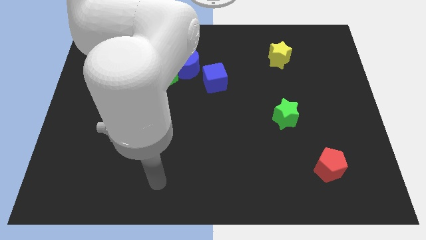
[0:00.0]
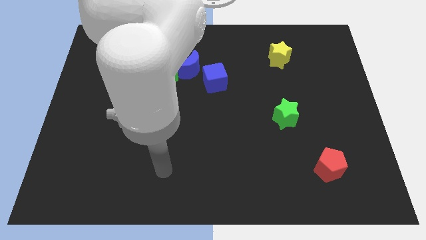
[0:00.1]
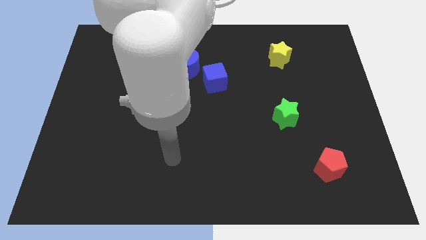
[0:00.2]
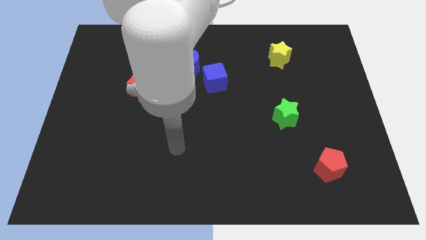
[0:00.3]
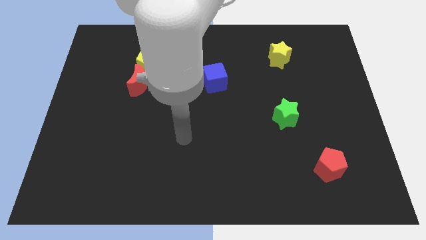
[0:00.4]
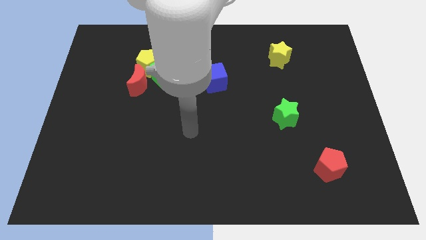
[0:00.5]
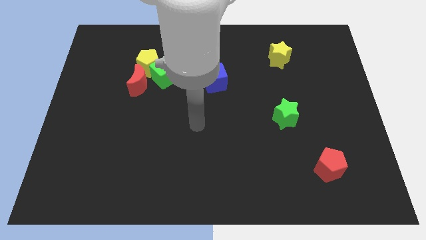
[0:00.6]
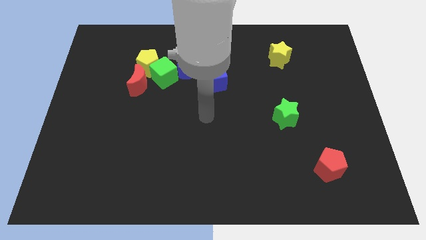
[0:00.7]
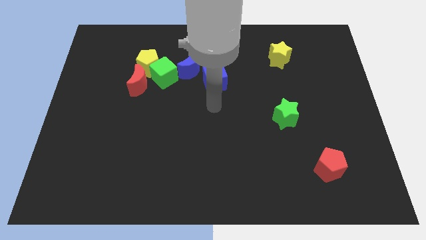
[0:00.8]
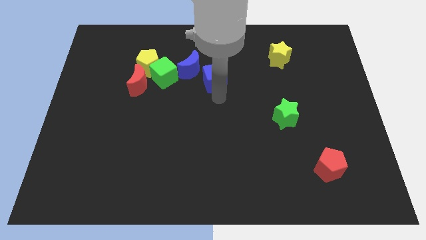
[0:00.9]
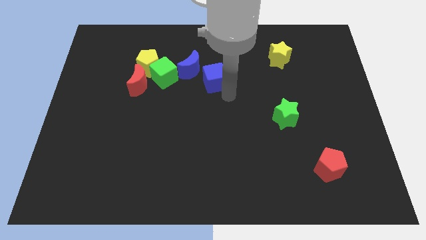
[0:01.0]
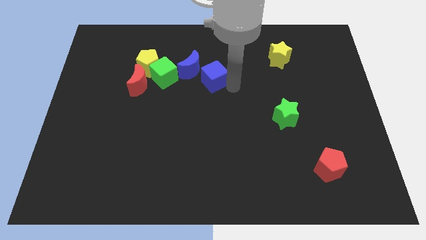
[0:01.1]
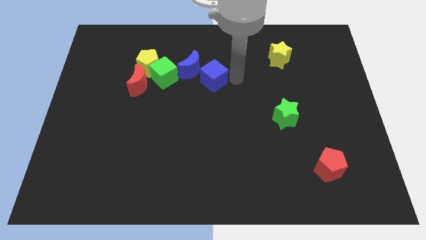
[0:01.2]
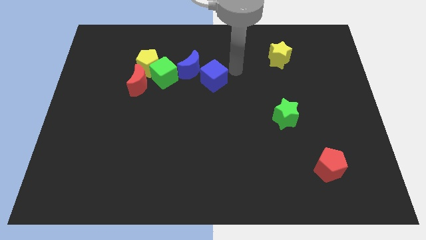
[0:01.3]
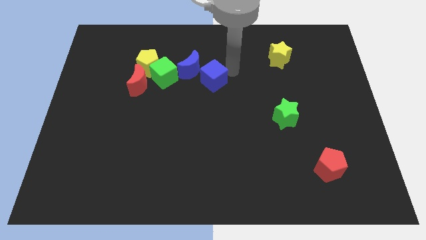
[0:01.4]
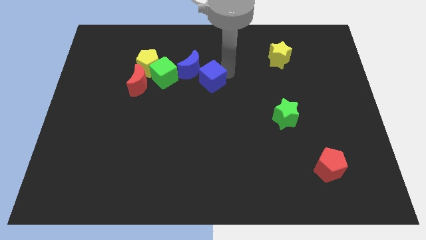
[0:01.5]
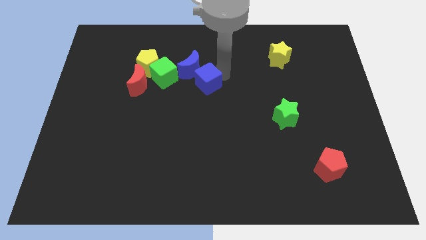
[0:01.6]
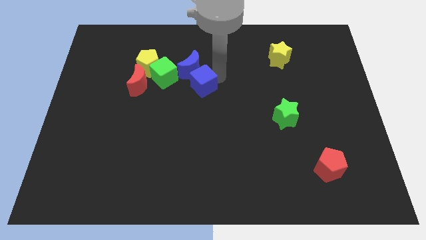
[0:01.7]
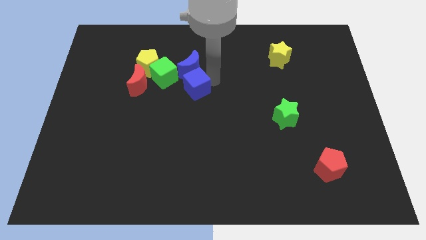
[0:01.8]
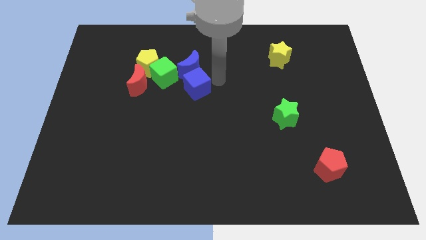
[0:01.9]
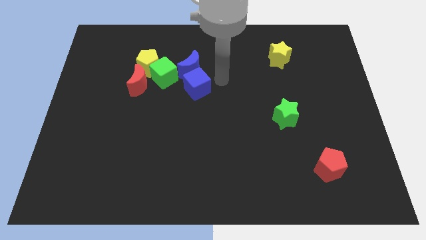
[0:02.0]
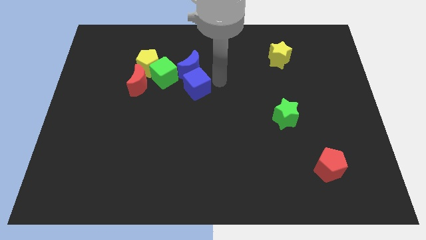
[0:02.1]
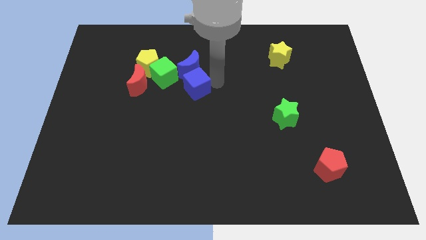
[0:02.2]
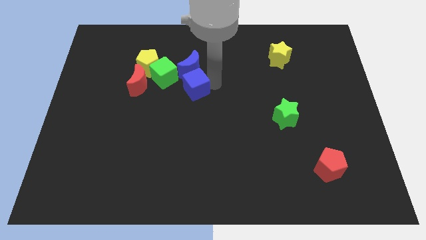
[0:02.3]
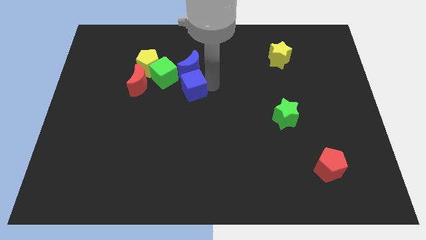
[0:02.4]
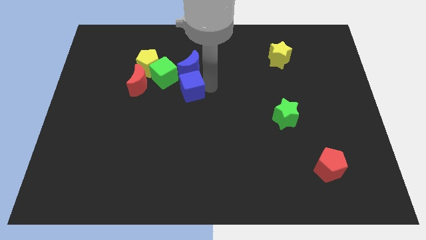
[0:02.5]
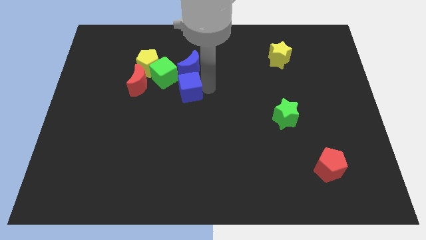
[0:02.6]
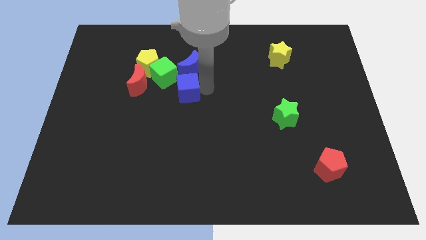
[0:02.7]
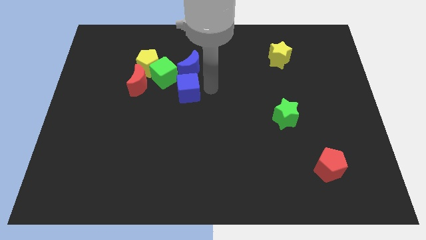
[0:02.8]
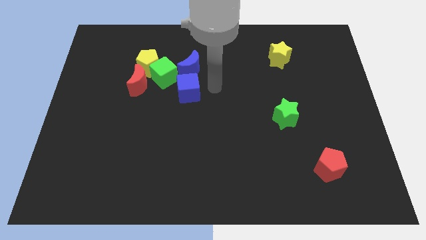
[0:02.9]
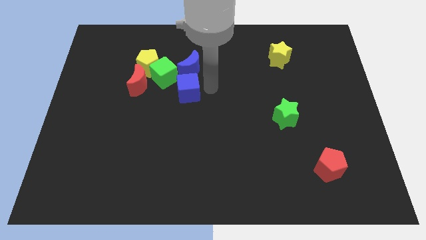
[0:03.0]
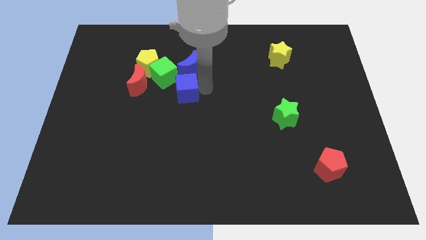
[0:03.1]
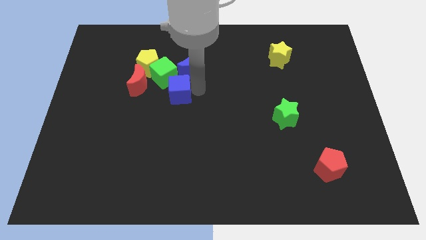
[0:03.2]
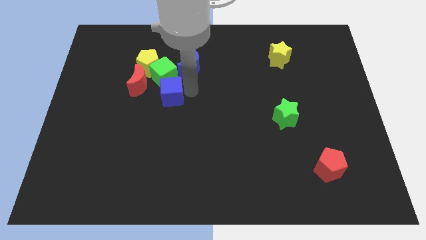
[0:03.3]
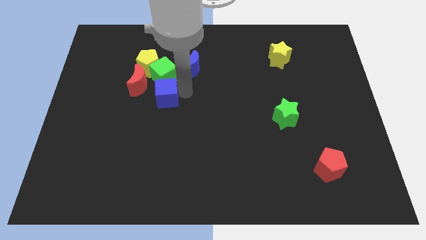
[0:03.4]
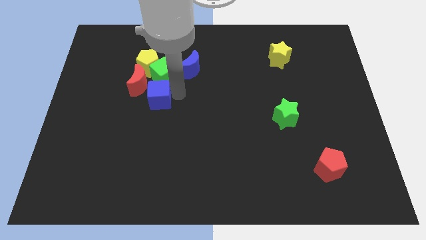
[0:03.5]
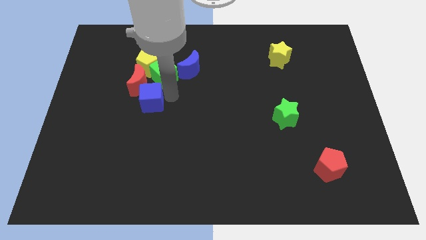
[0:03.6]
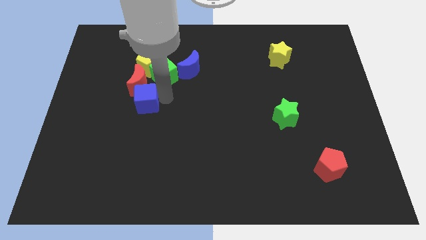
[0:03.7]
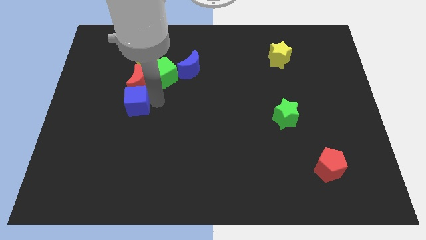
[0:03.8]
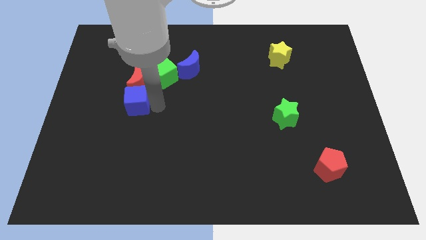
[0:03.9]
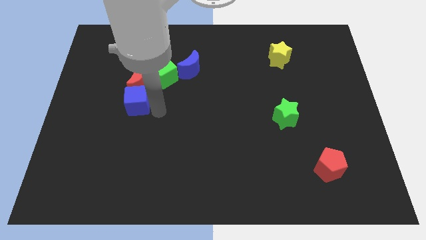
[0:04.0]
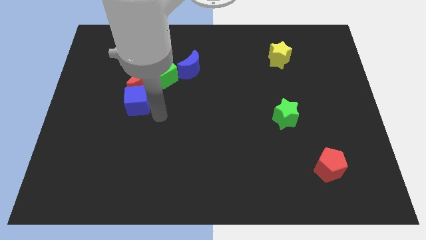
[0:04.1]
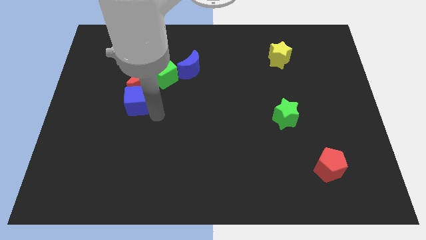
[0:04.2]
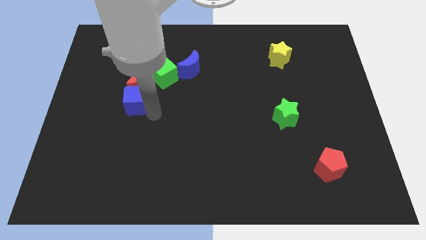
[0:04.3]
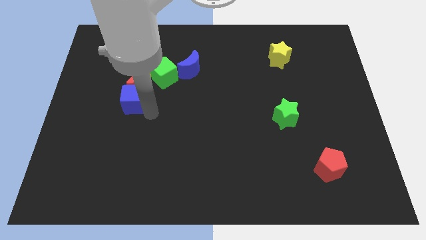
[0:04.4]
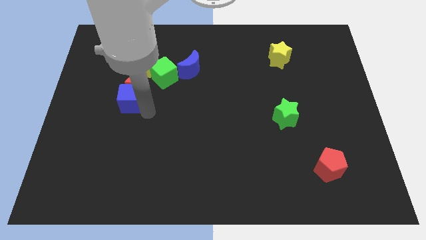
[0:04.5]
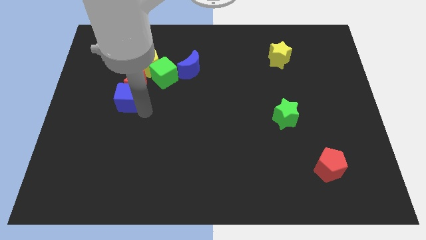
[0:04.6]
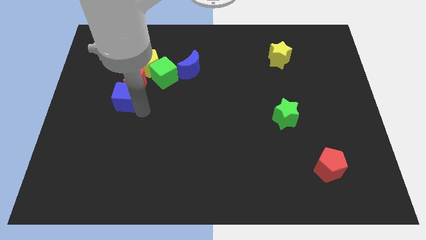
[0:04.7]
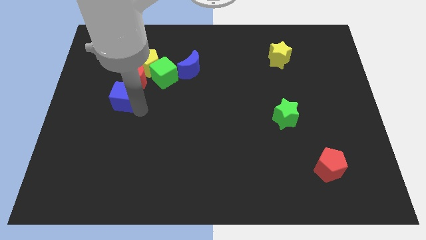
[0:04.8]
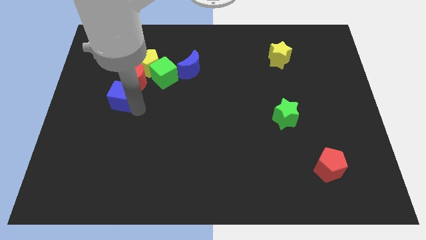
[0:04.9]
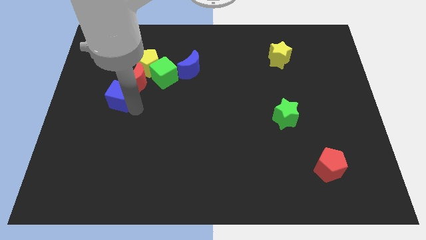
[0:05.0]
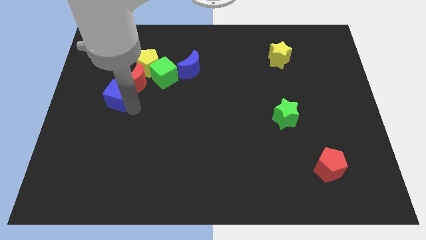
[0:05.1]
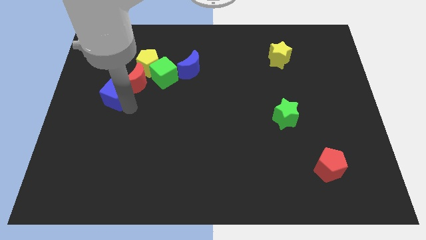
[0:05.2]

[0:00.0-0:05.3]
push the blue cube to the left side of the red moon

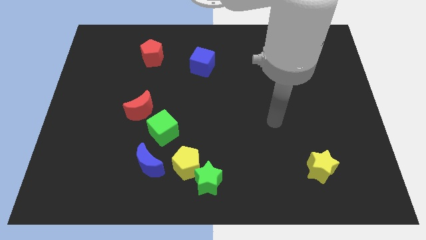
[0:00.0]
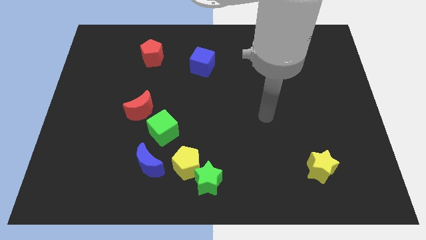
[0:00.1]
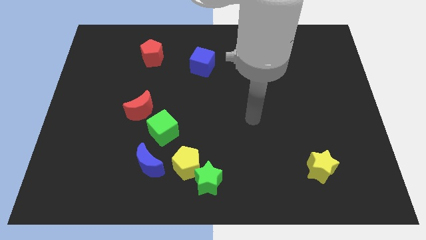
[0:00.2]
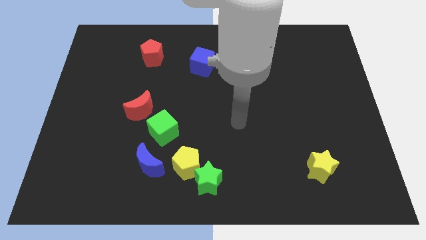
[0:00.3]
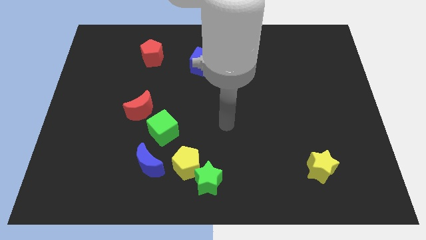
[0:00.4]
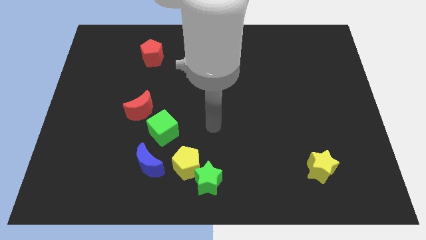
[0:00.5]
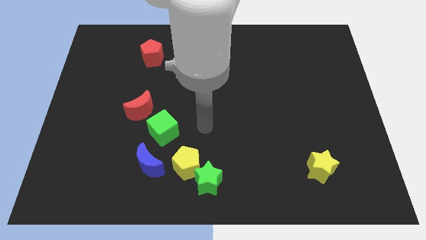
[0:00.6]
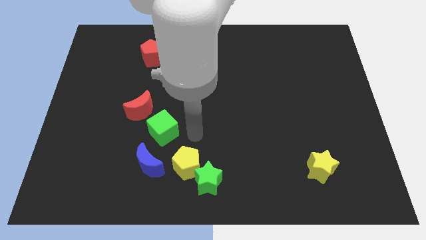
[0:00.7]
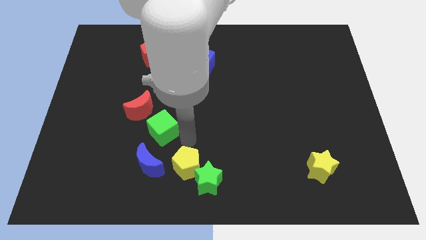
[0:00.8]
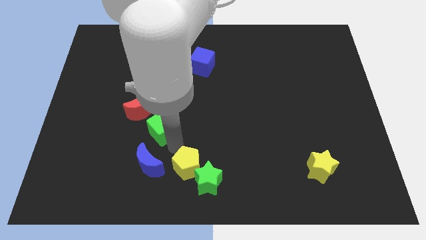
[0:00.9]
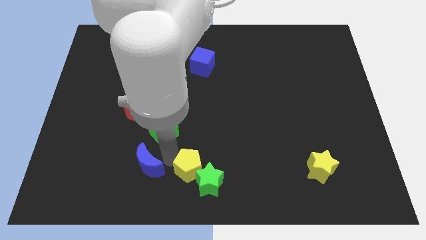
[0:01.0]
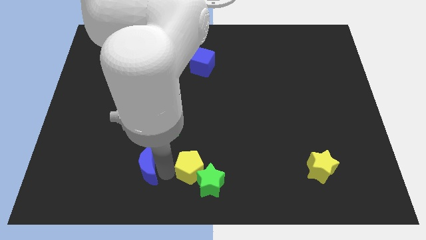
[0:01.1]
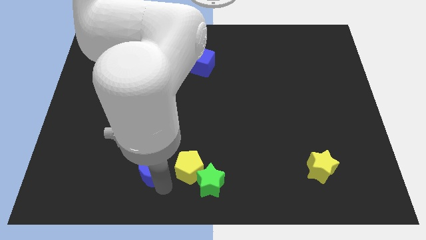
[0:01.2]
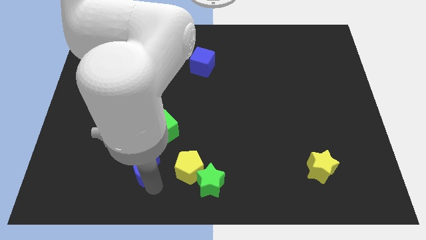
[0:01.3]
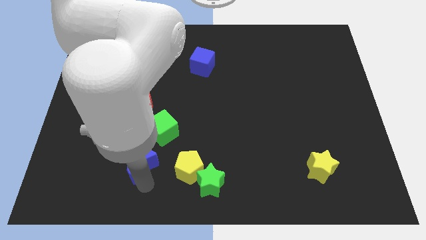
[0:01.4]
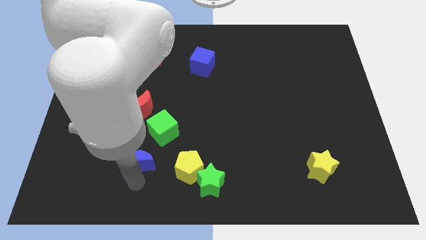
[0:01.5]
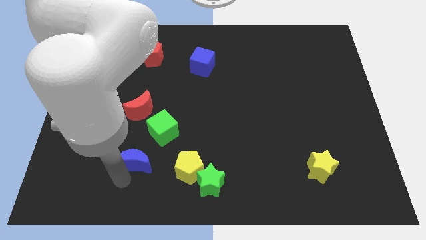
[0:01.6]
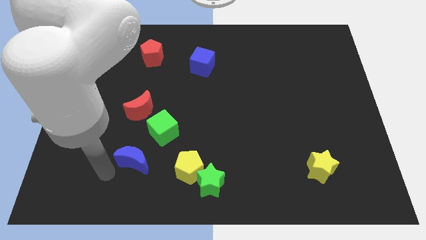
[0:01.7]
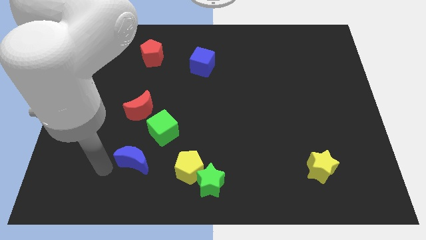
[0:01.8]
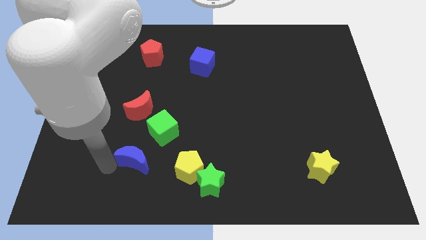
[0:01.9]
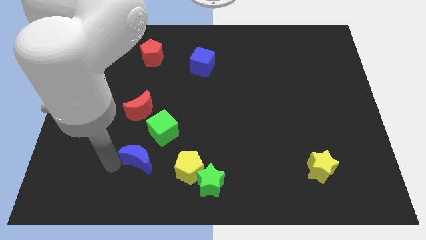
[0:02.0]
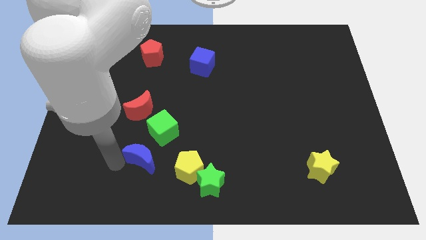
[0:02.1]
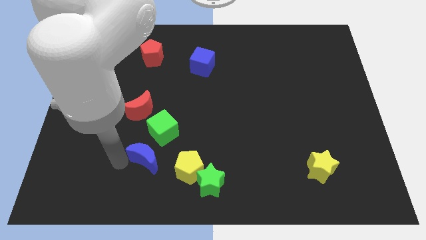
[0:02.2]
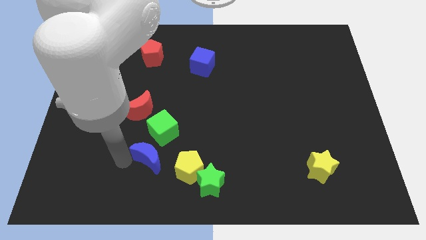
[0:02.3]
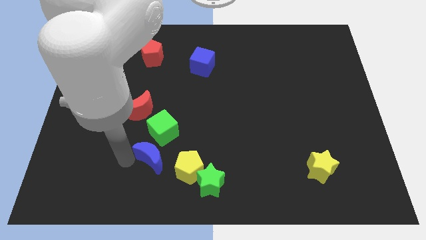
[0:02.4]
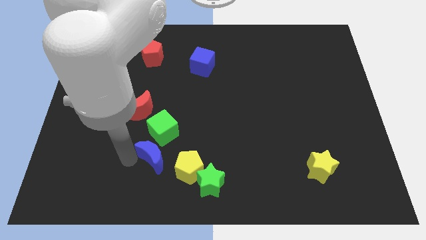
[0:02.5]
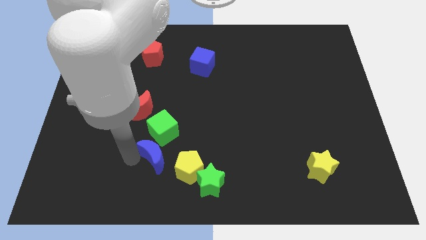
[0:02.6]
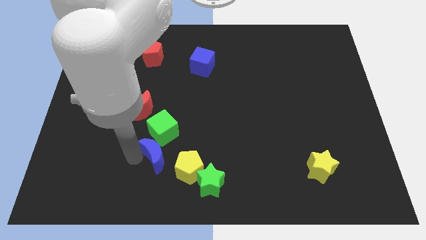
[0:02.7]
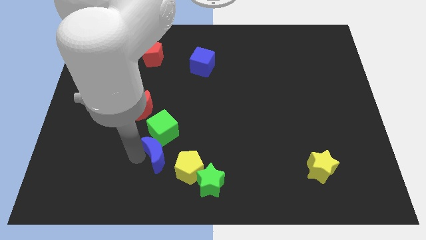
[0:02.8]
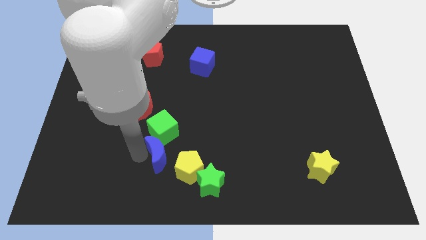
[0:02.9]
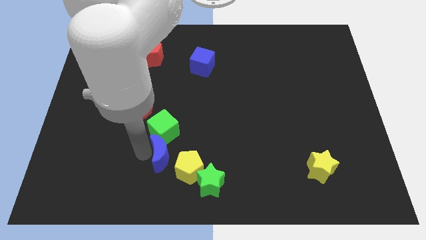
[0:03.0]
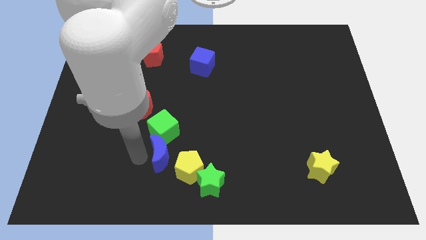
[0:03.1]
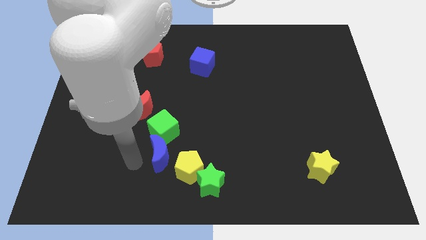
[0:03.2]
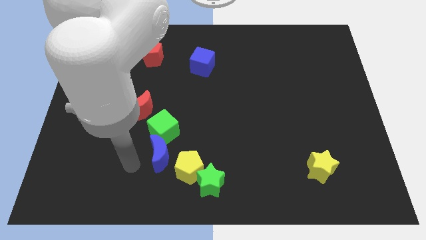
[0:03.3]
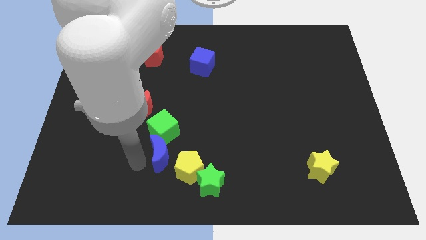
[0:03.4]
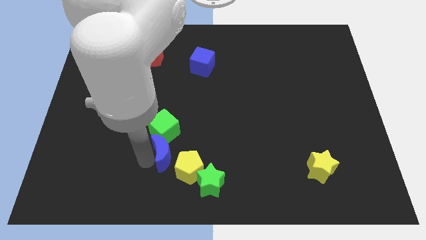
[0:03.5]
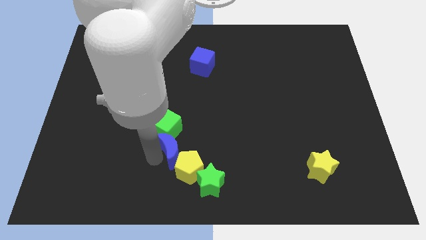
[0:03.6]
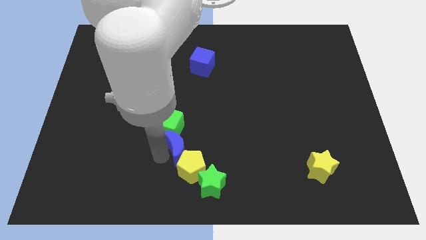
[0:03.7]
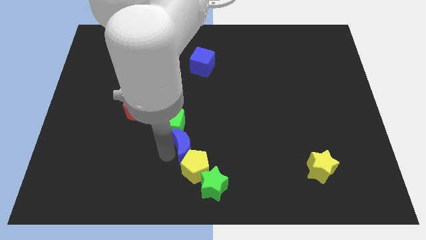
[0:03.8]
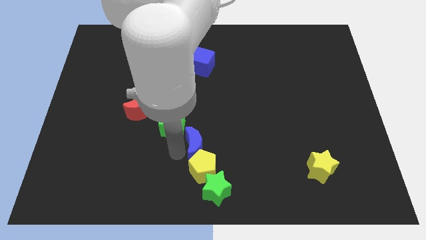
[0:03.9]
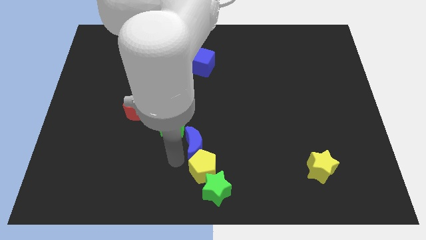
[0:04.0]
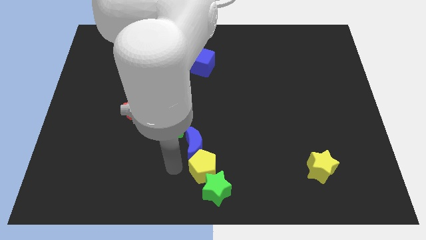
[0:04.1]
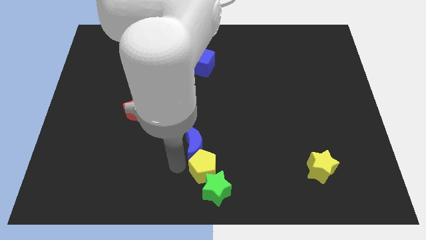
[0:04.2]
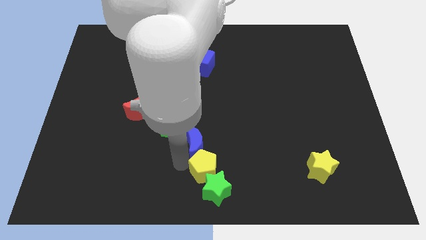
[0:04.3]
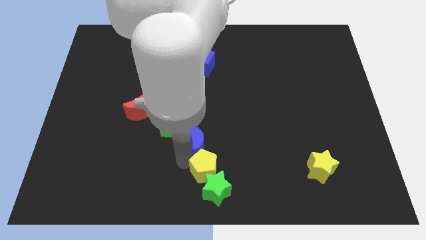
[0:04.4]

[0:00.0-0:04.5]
slide the blue moon to the right of the green cube
